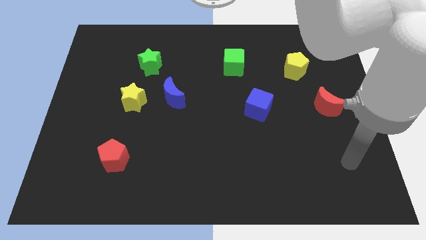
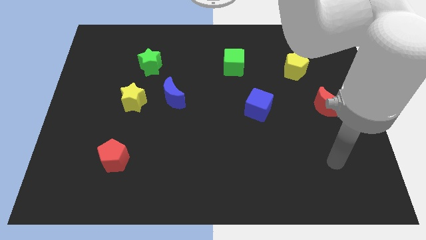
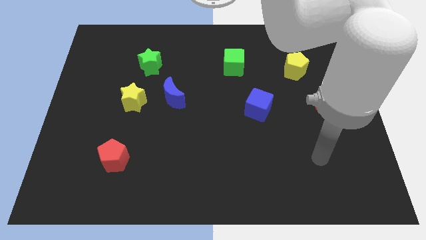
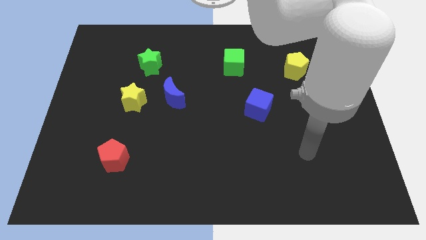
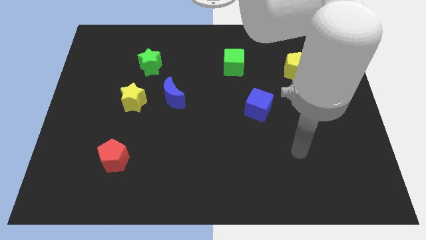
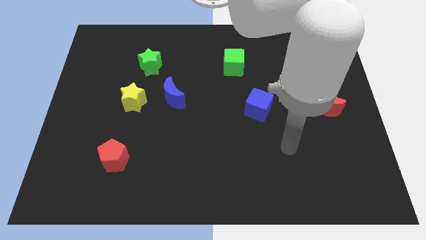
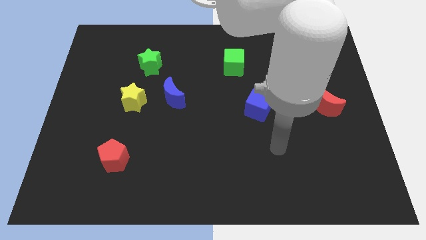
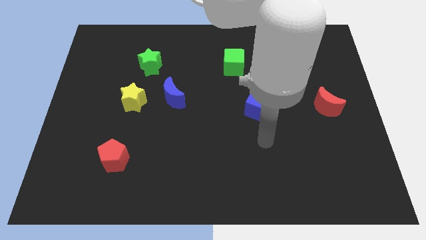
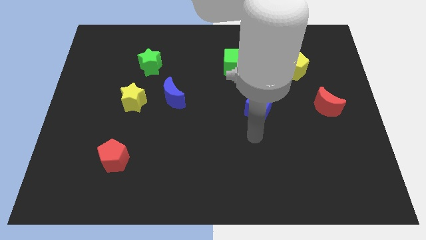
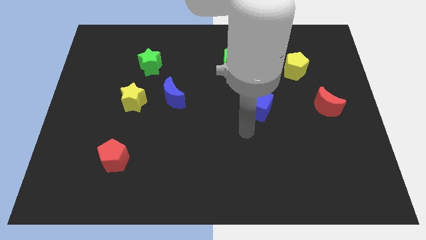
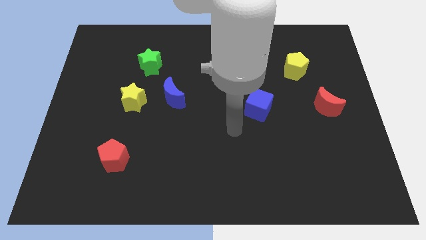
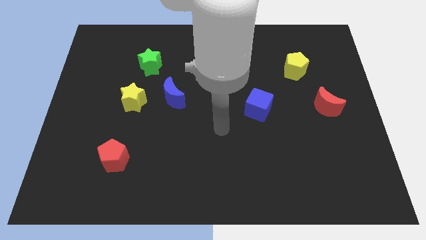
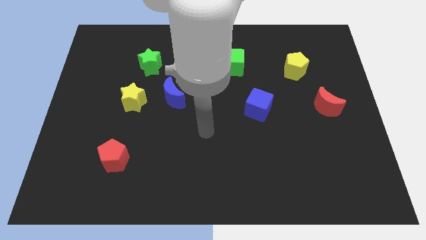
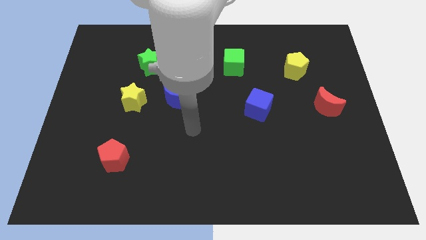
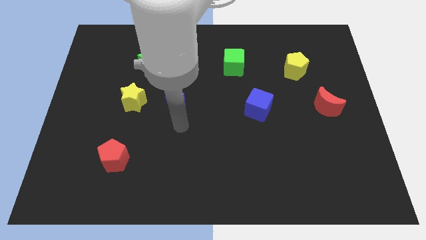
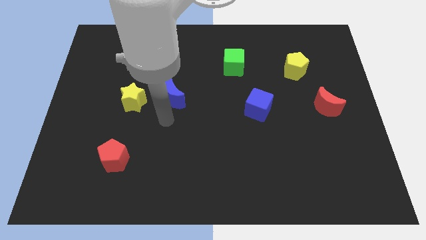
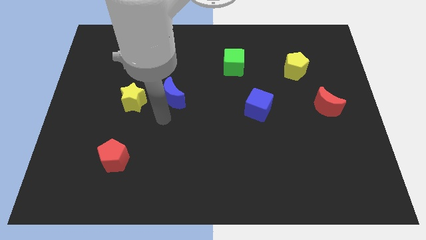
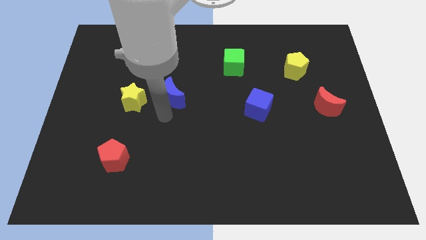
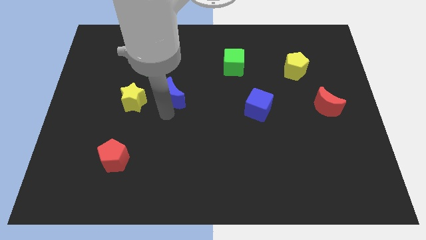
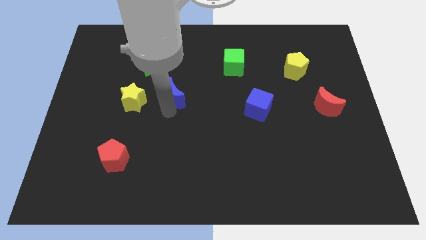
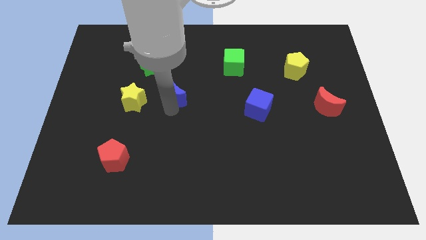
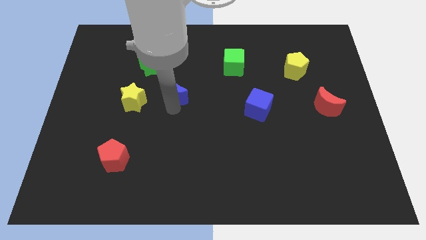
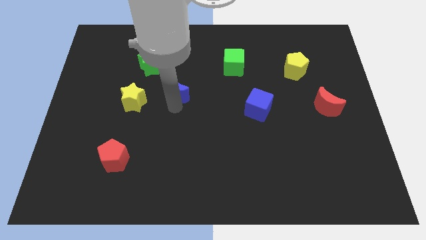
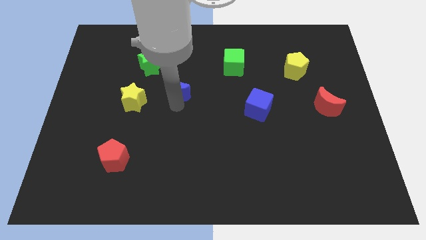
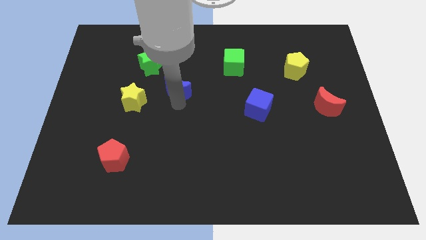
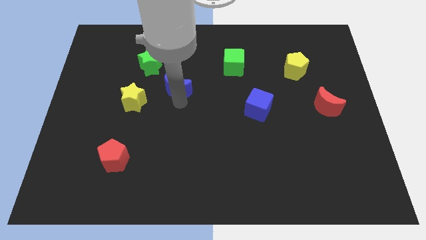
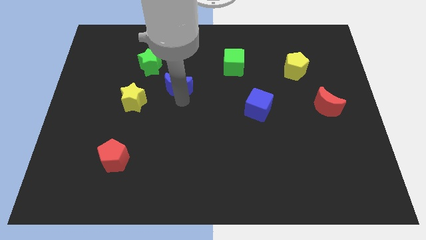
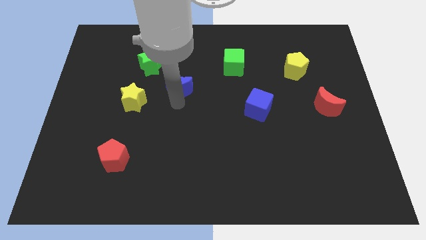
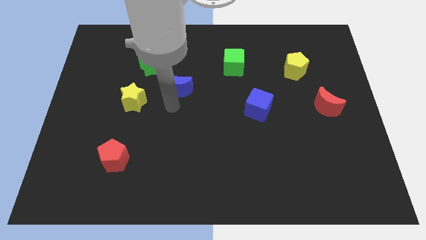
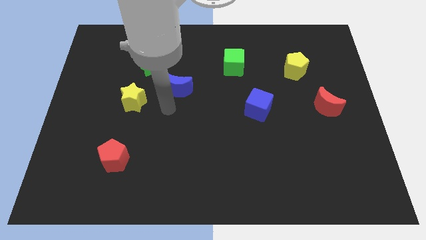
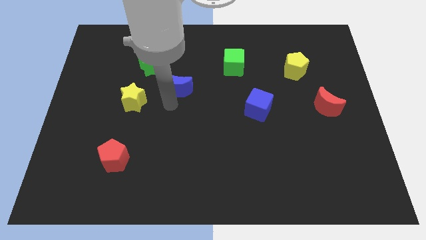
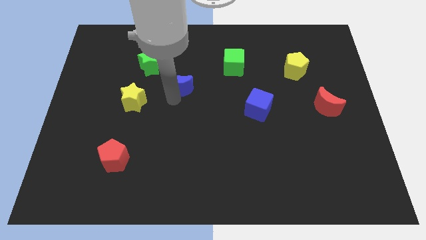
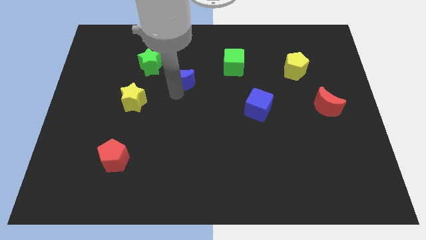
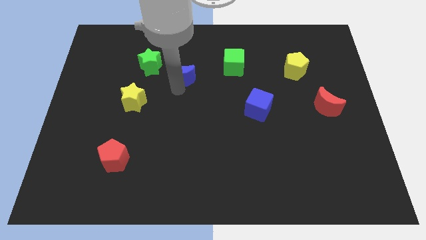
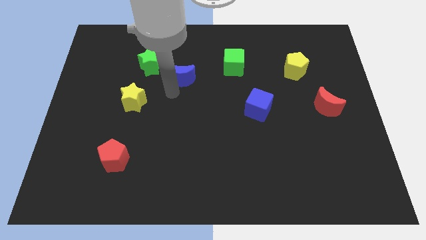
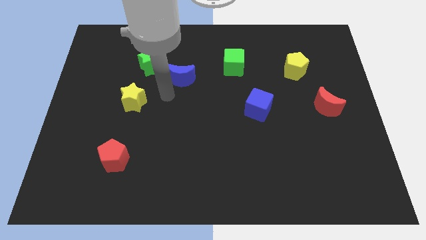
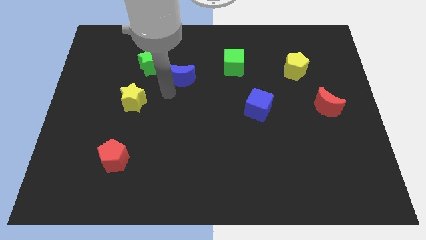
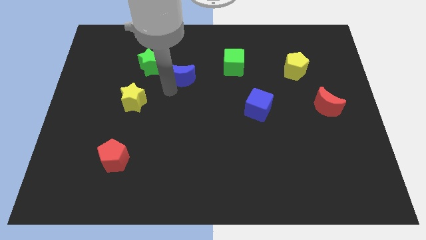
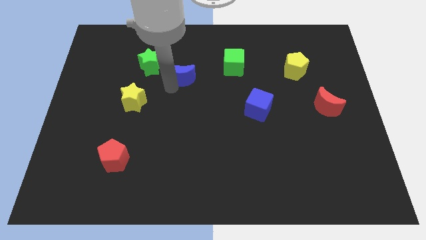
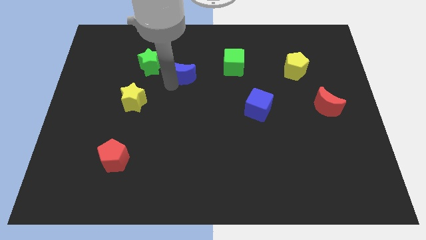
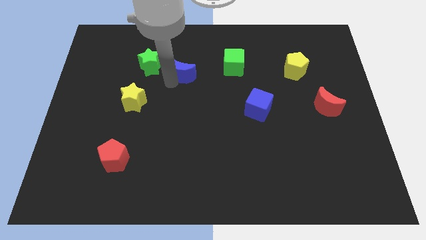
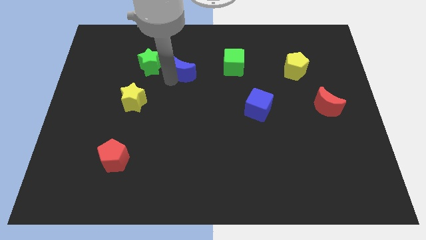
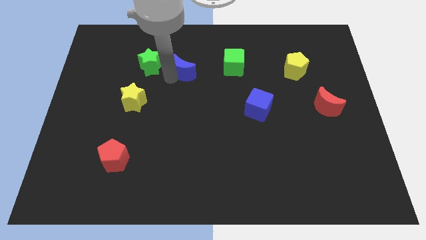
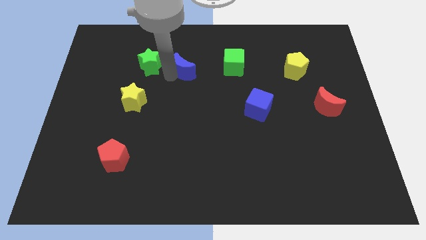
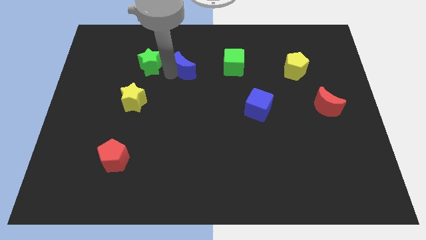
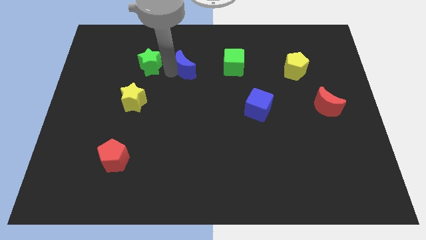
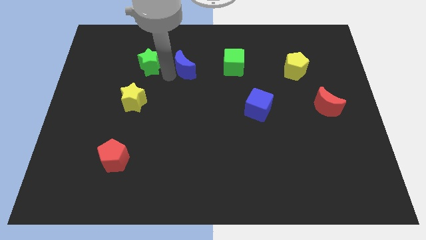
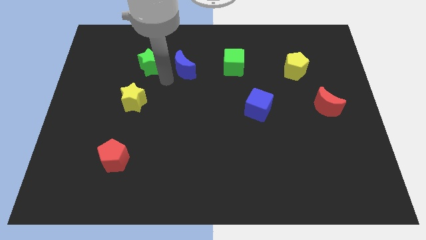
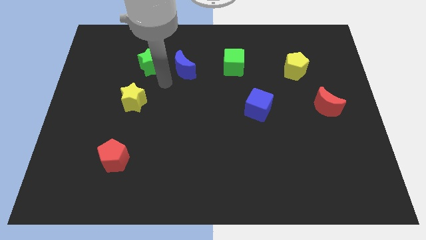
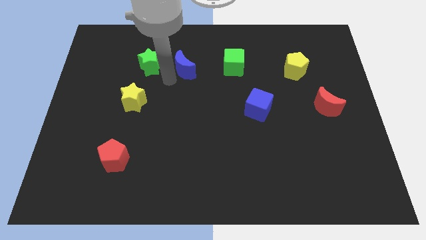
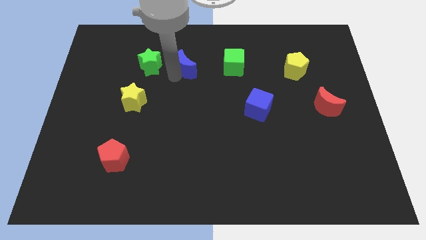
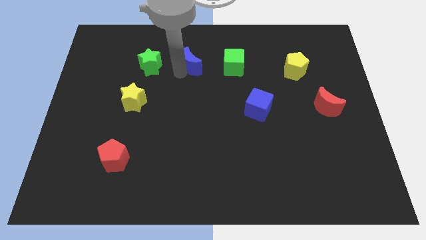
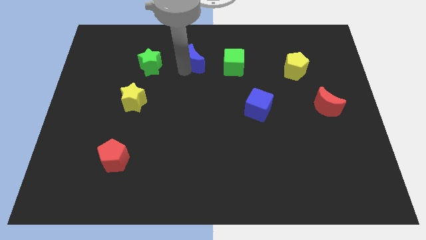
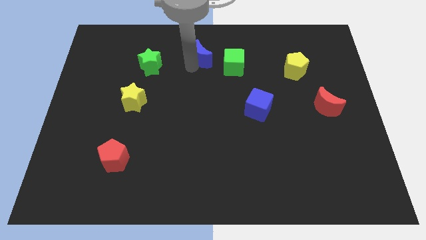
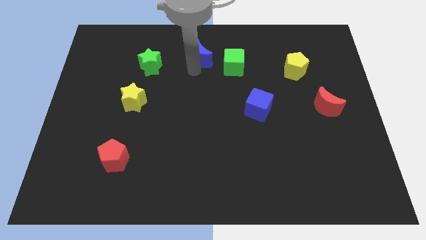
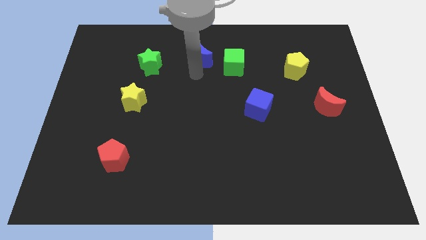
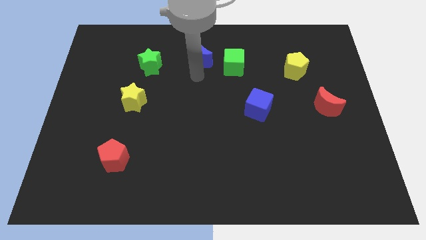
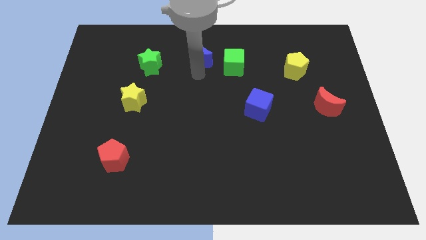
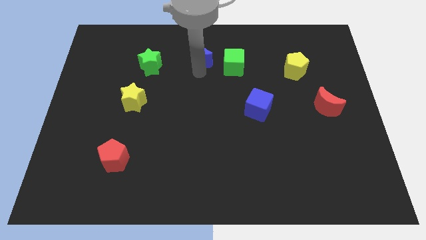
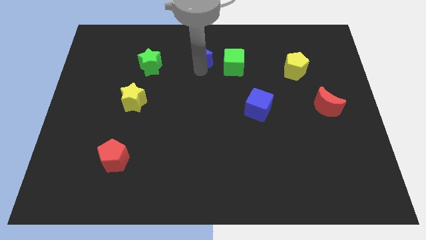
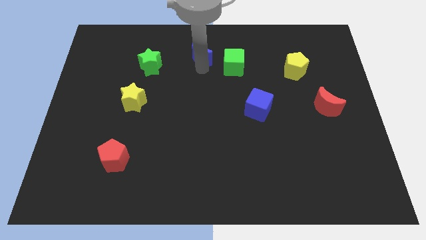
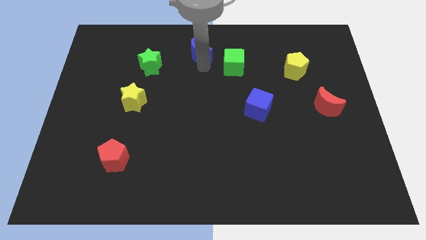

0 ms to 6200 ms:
put the blue moon to the top

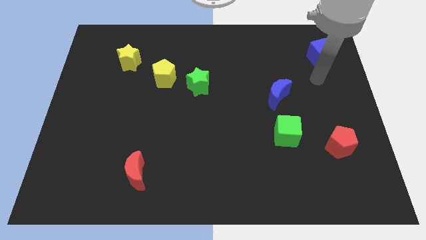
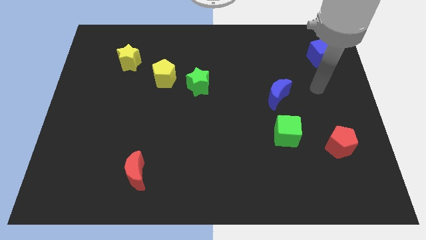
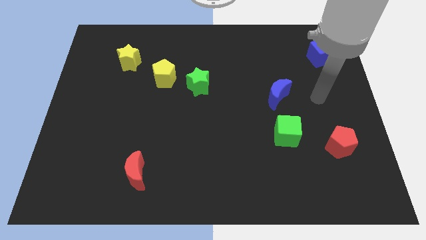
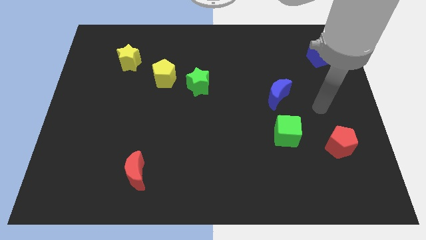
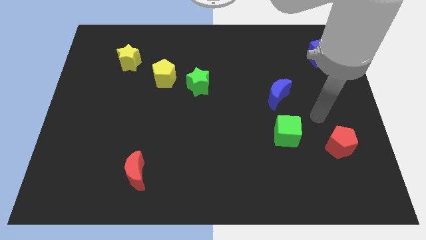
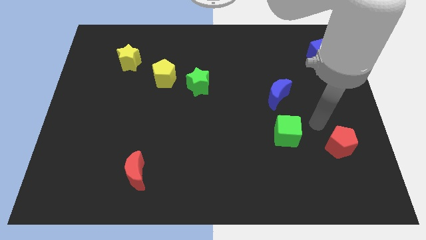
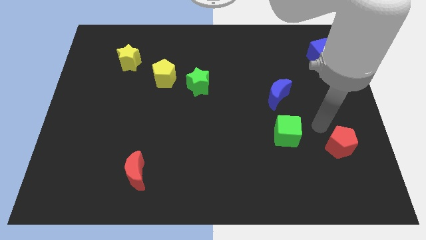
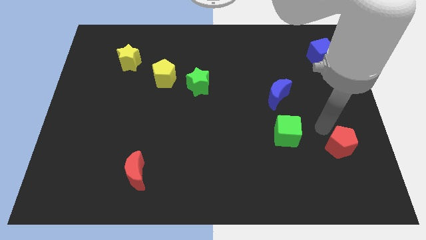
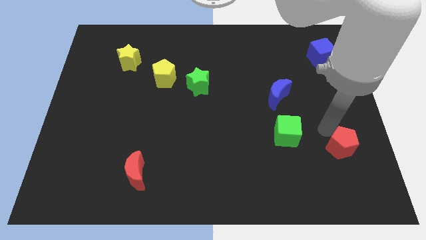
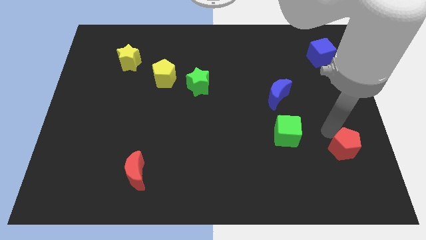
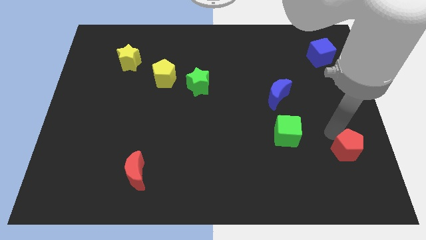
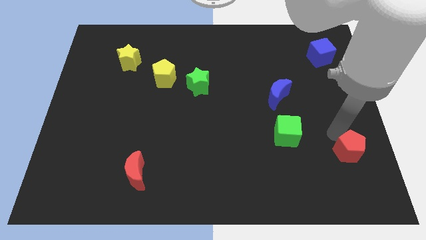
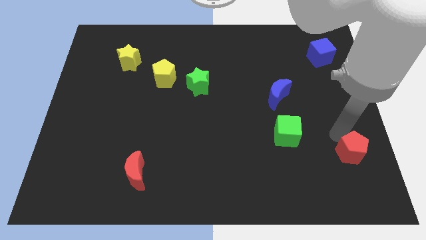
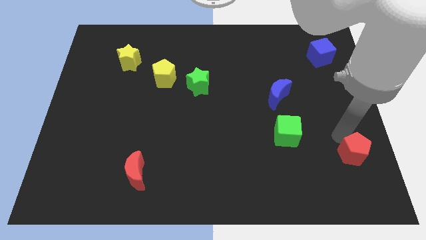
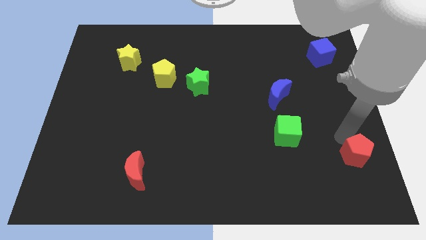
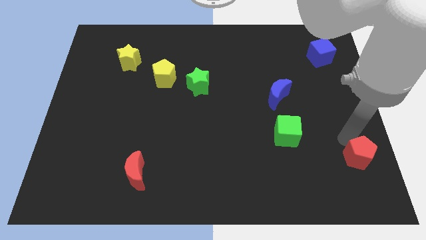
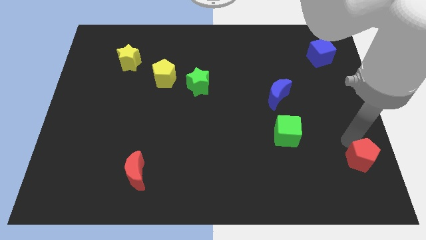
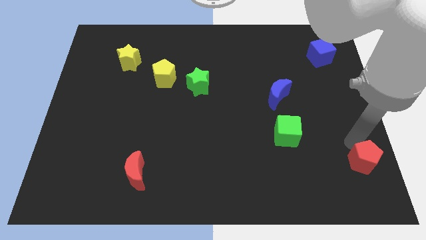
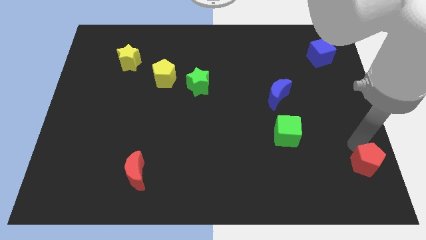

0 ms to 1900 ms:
slide the red pentagon to the bottom right
